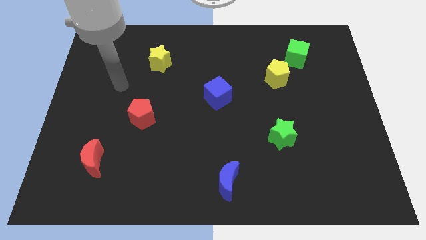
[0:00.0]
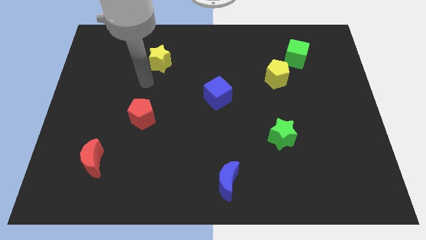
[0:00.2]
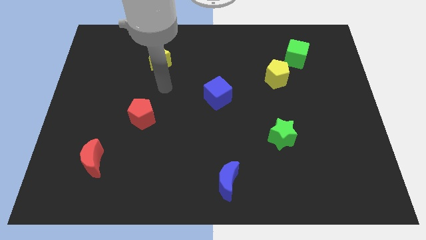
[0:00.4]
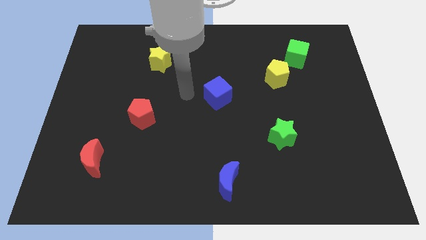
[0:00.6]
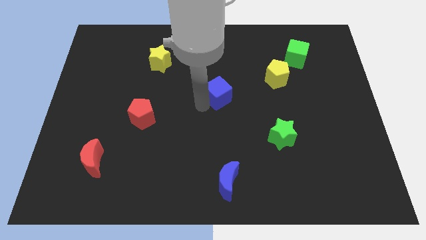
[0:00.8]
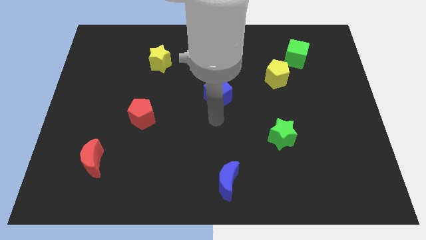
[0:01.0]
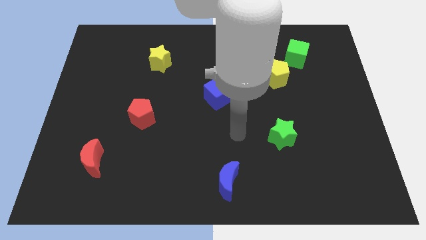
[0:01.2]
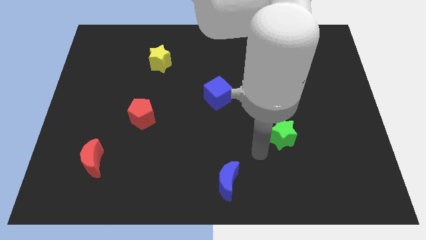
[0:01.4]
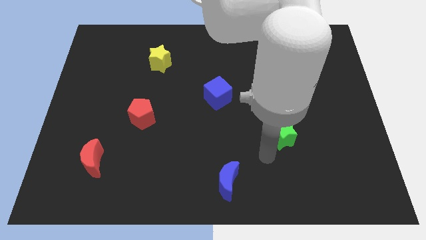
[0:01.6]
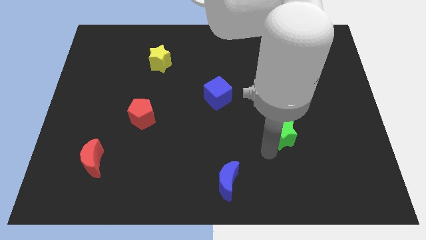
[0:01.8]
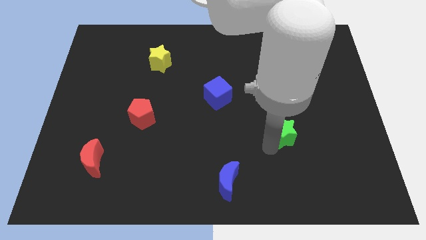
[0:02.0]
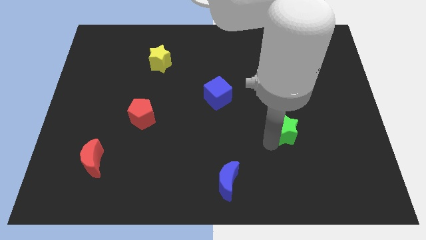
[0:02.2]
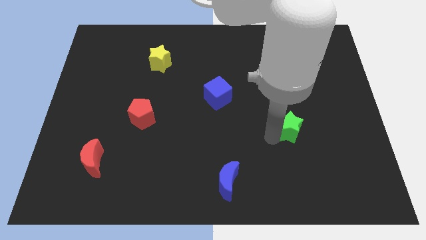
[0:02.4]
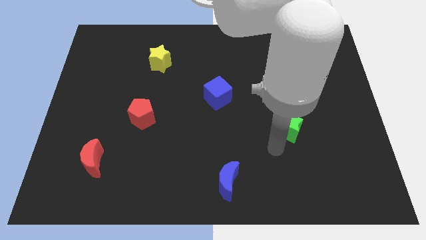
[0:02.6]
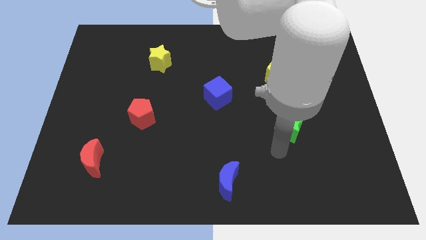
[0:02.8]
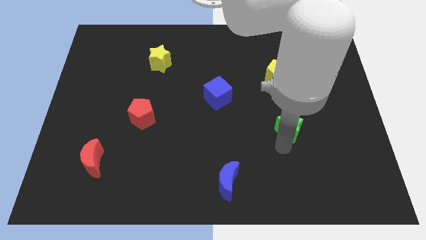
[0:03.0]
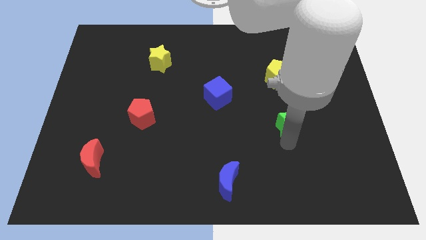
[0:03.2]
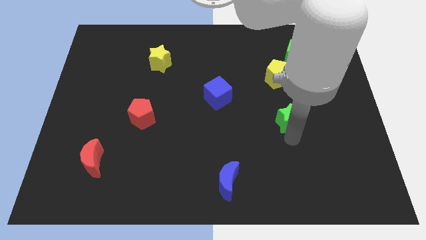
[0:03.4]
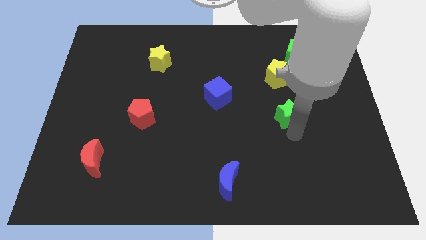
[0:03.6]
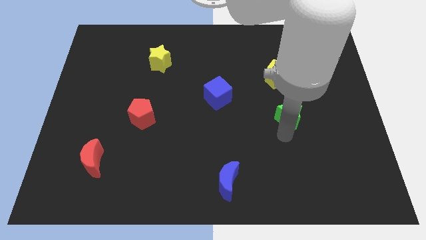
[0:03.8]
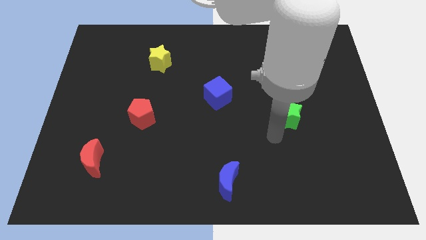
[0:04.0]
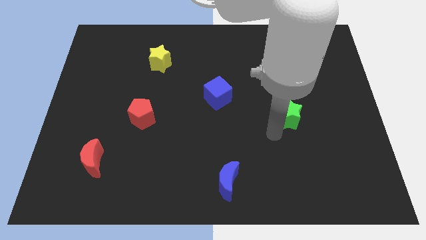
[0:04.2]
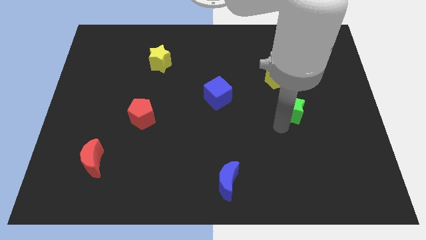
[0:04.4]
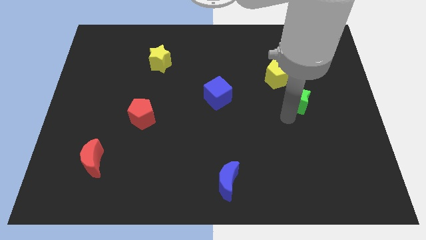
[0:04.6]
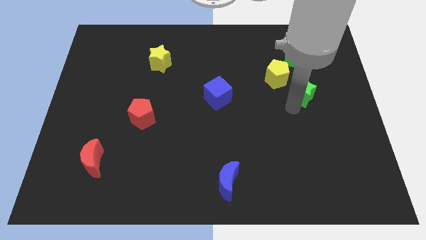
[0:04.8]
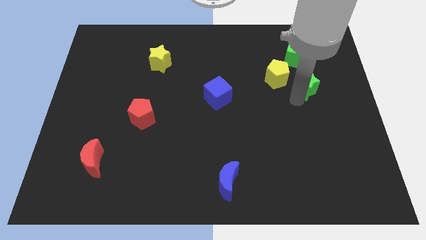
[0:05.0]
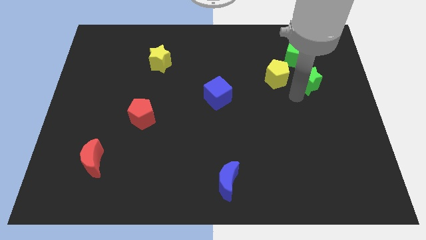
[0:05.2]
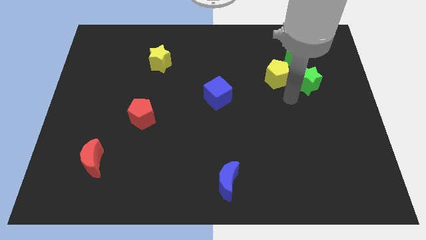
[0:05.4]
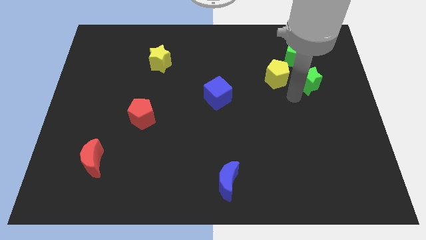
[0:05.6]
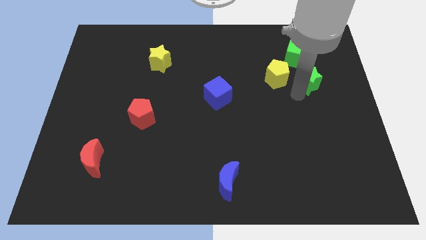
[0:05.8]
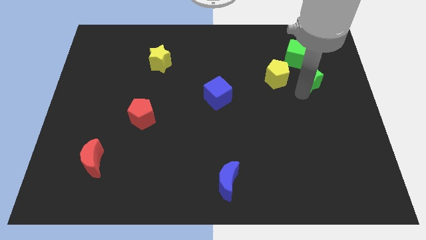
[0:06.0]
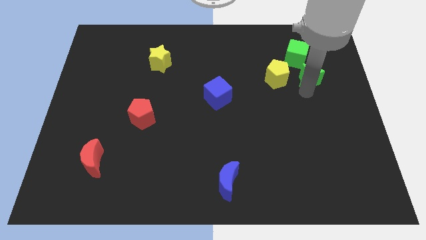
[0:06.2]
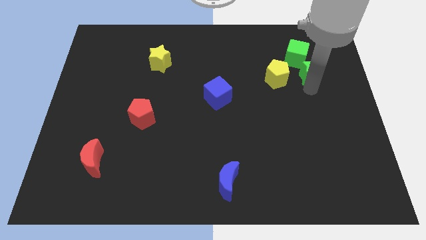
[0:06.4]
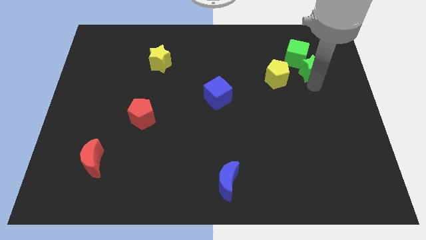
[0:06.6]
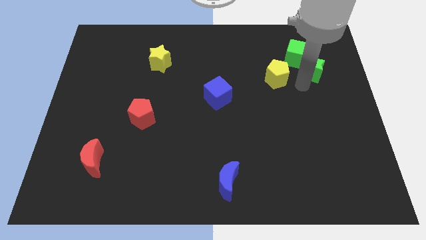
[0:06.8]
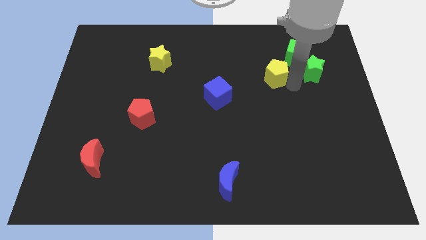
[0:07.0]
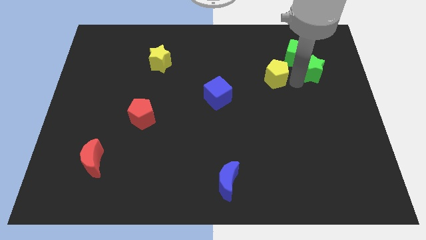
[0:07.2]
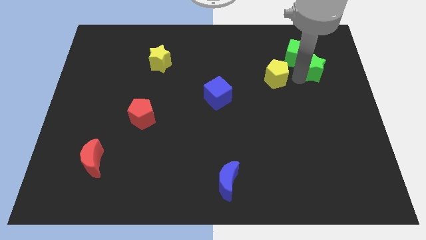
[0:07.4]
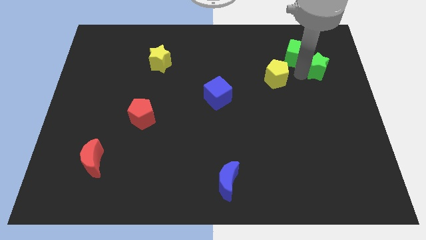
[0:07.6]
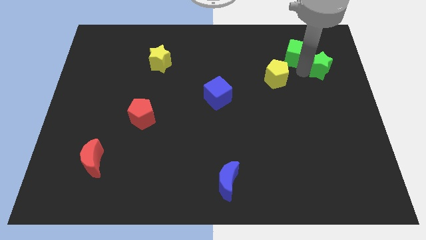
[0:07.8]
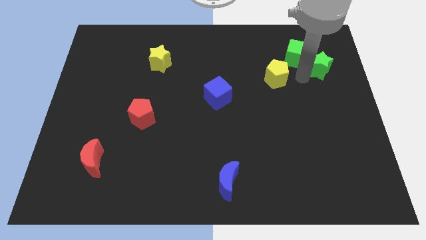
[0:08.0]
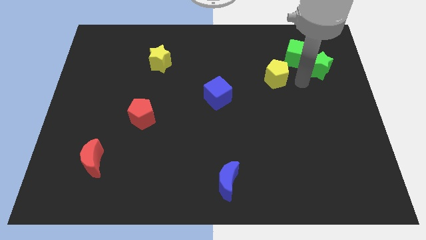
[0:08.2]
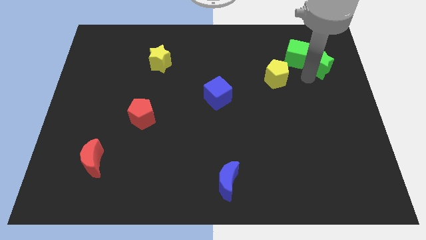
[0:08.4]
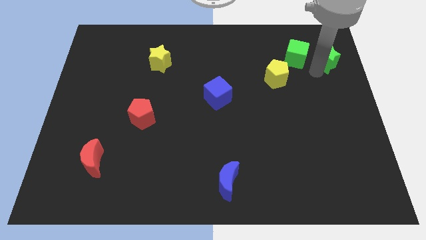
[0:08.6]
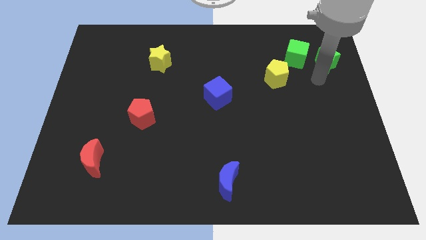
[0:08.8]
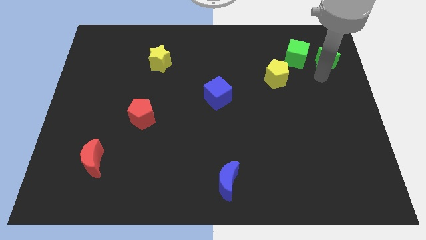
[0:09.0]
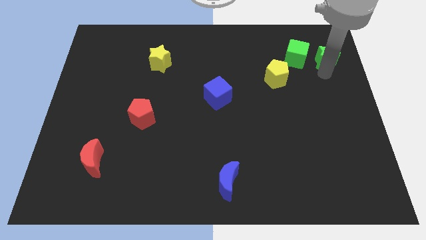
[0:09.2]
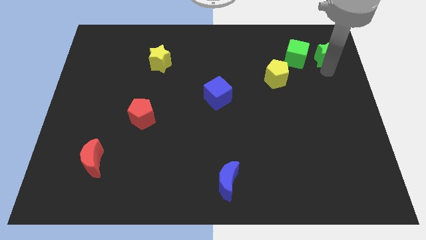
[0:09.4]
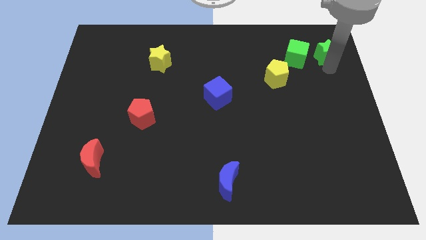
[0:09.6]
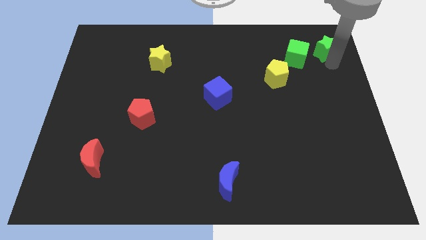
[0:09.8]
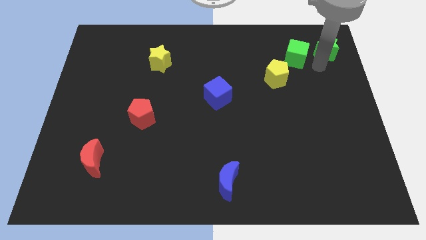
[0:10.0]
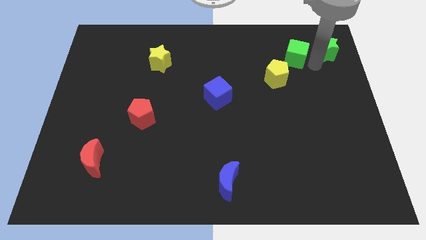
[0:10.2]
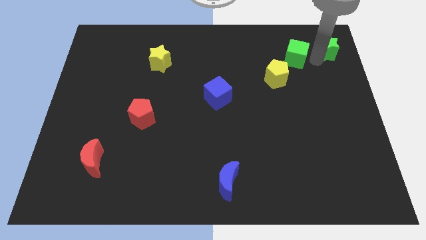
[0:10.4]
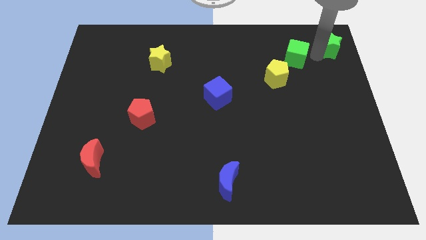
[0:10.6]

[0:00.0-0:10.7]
push the green star to the top right corner
